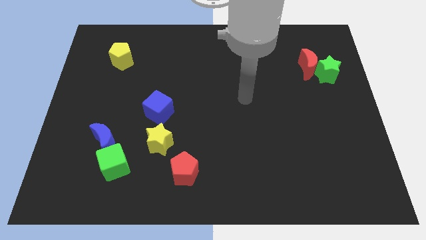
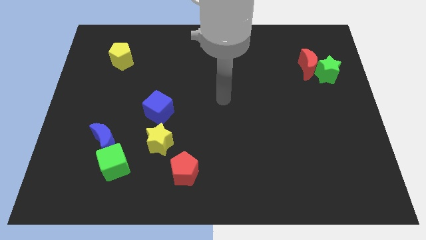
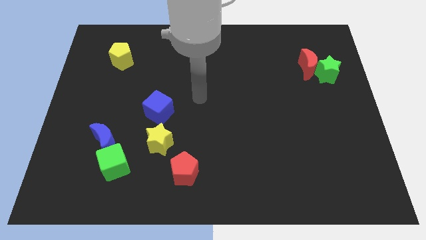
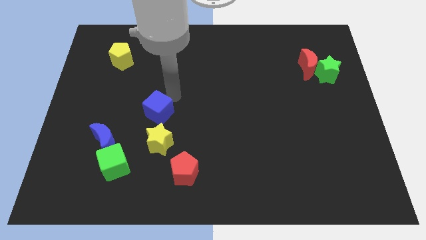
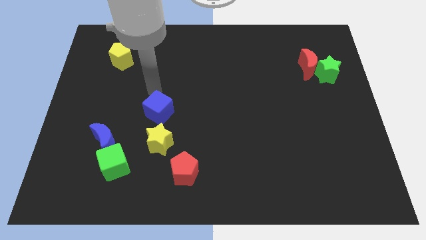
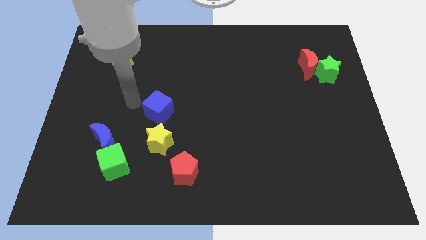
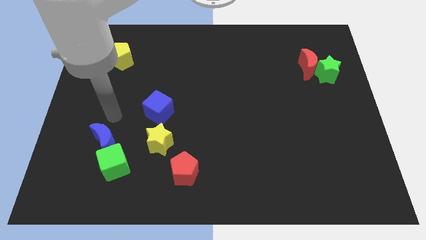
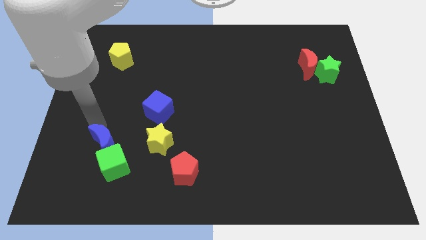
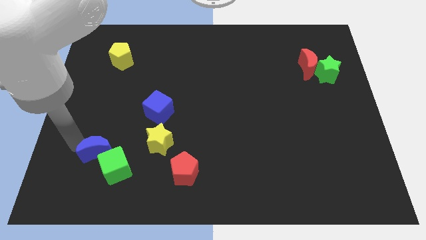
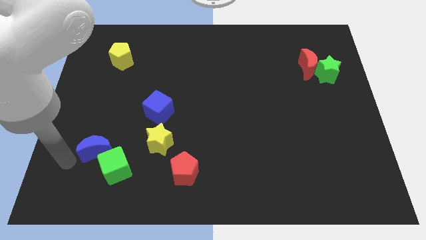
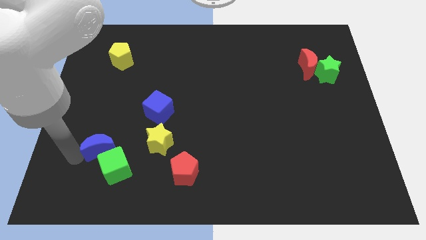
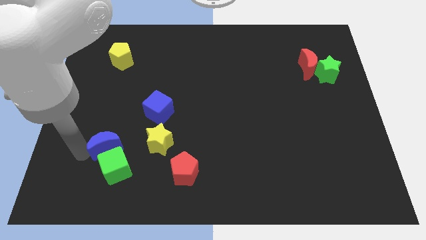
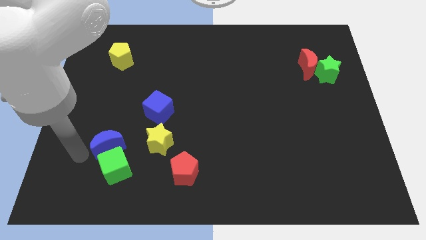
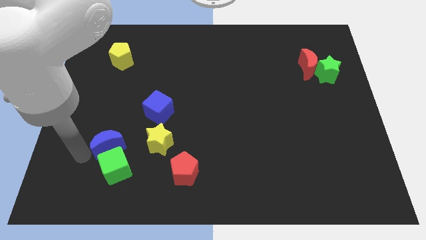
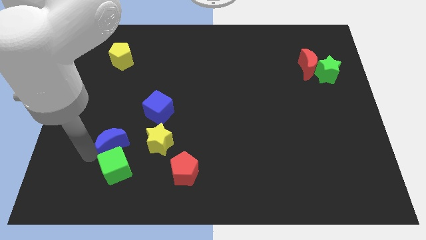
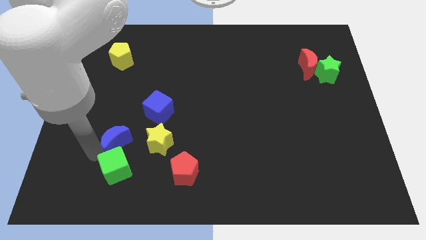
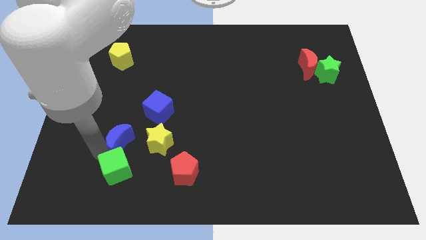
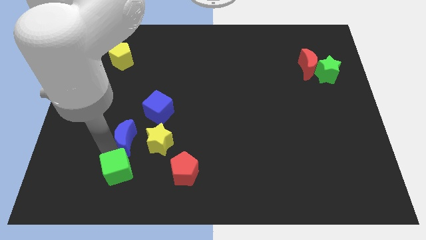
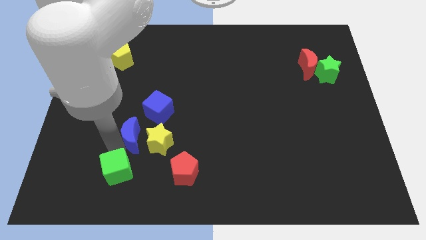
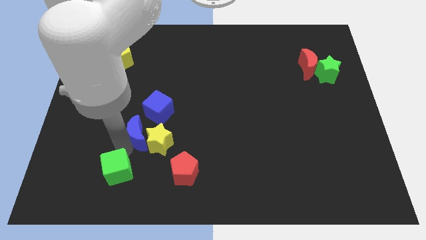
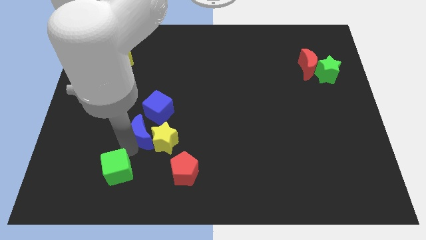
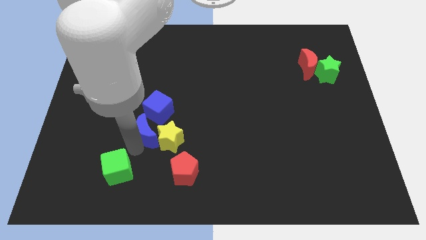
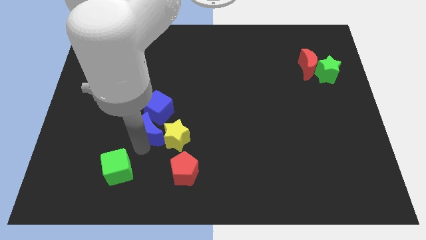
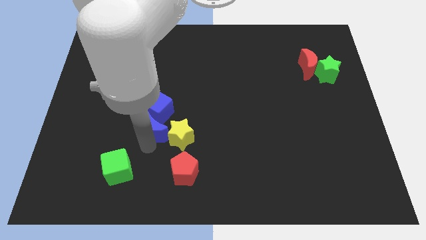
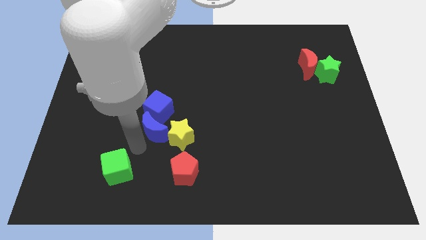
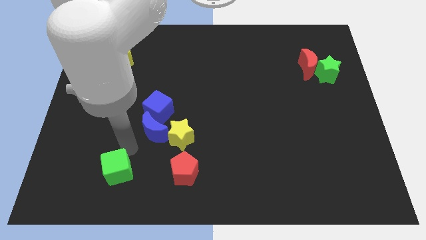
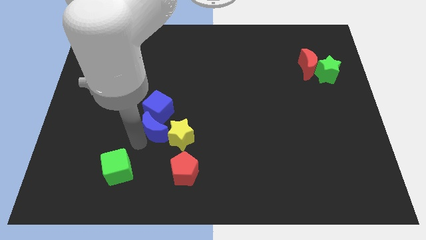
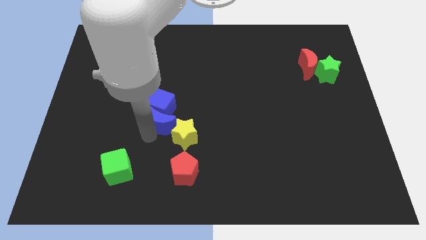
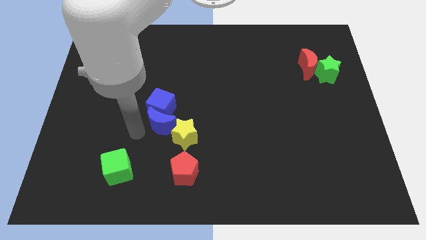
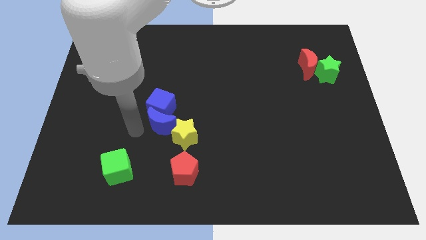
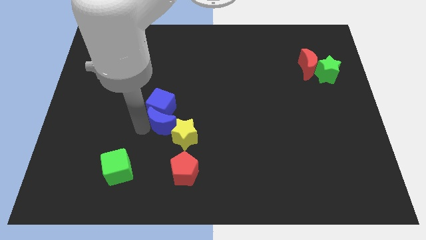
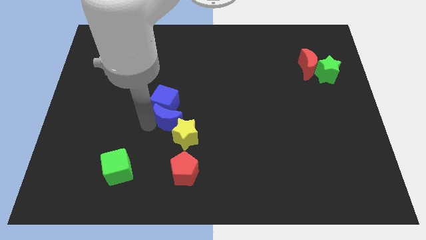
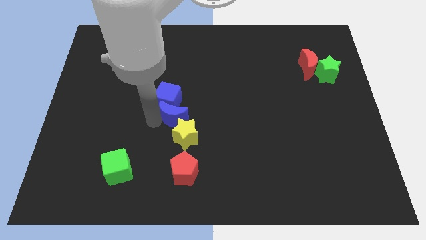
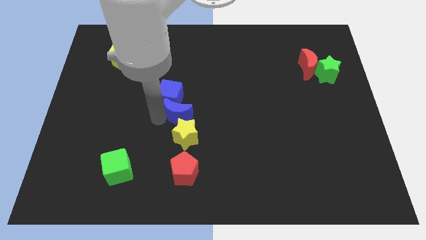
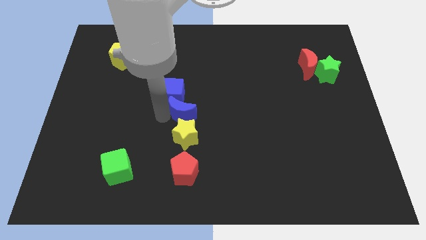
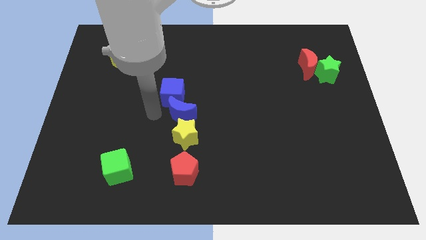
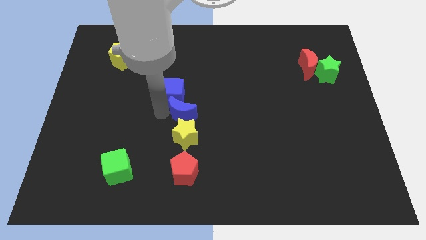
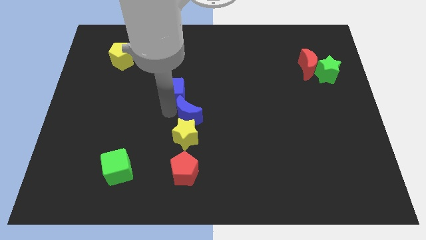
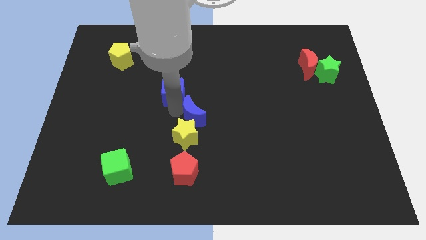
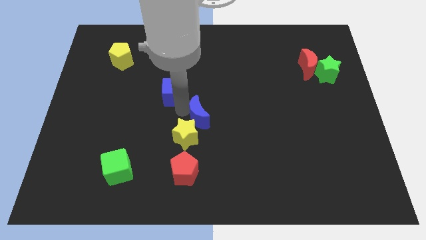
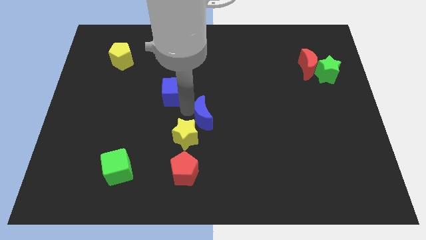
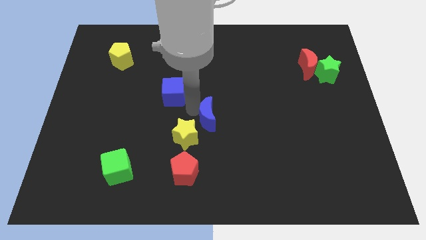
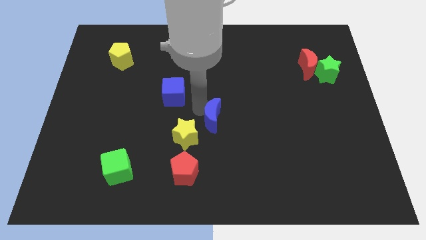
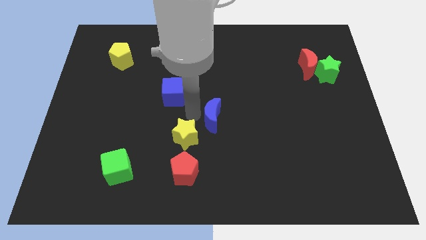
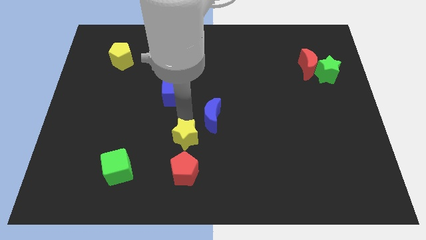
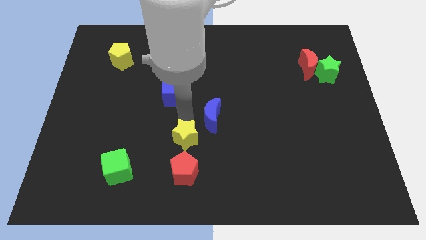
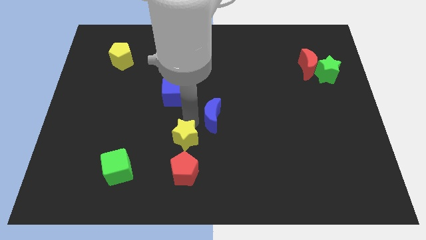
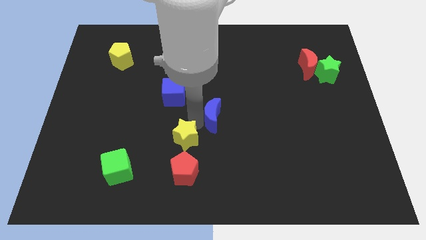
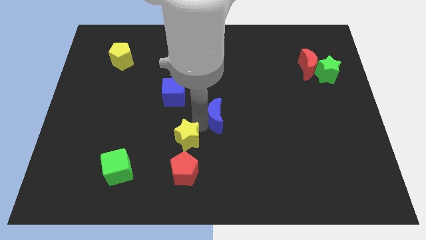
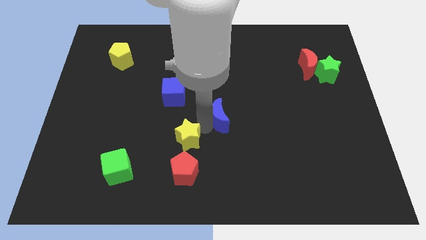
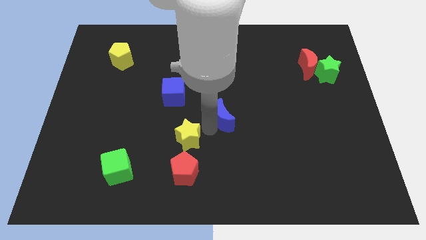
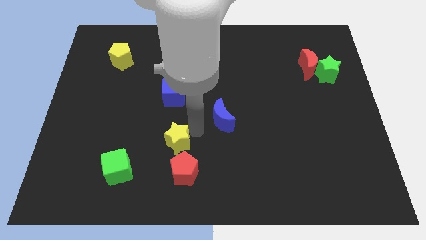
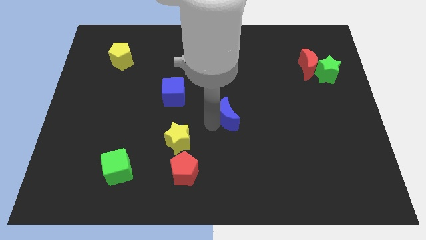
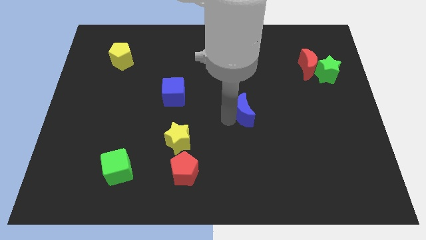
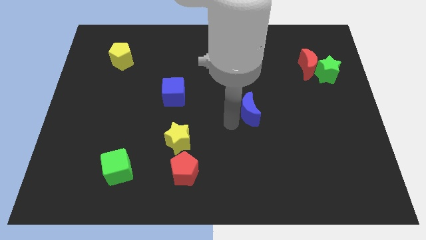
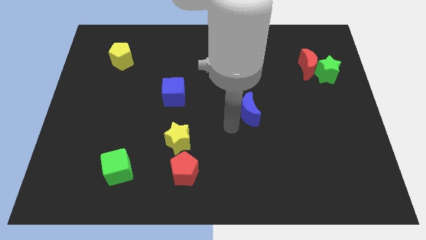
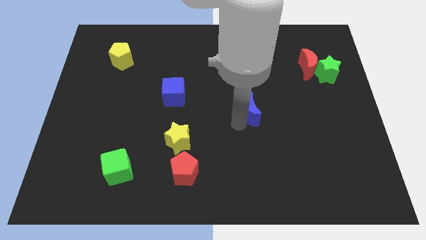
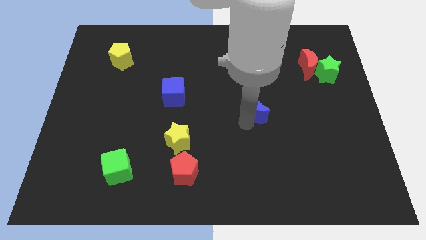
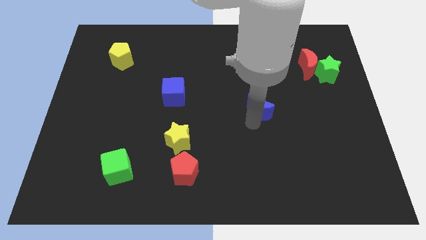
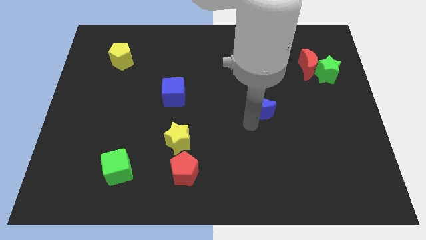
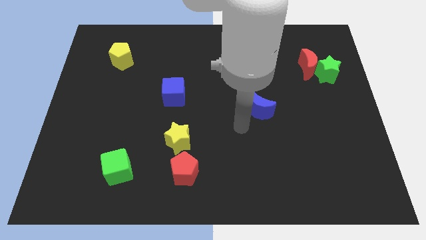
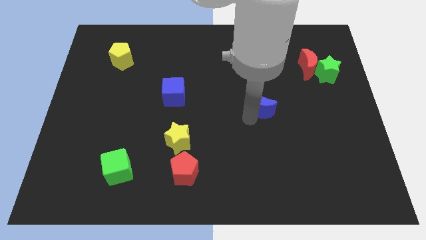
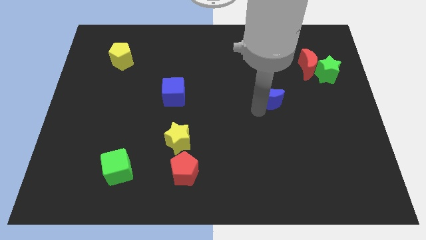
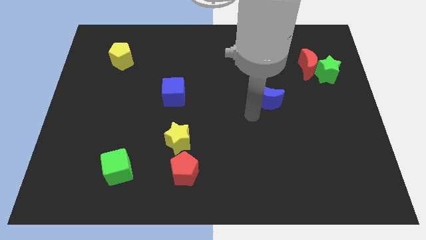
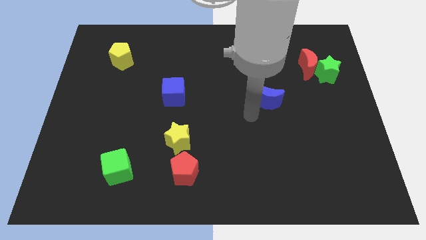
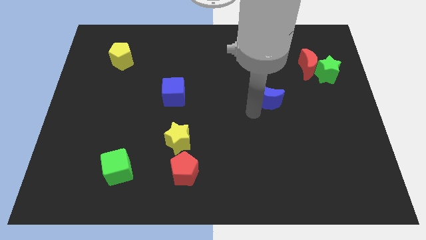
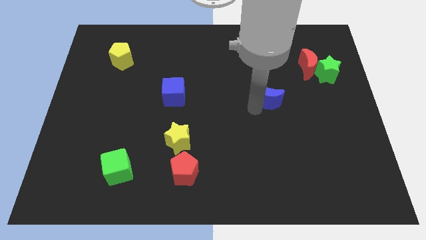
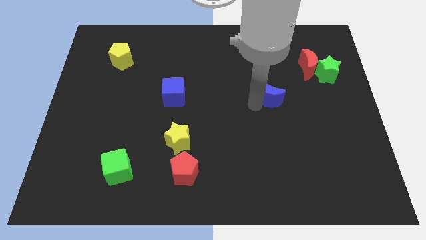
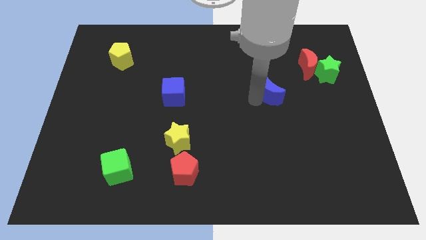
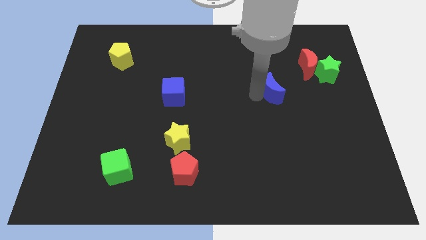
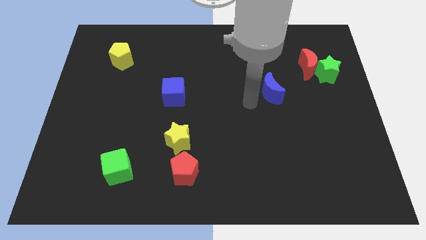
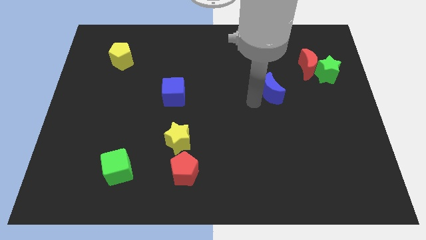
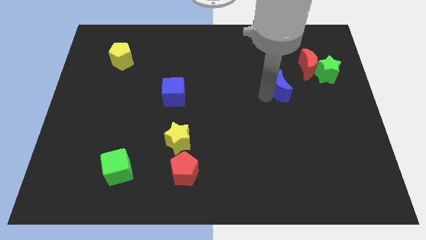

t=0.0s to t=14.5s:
slide the blue moon to the bottom left of the red moon

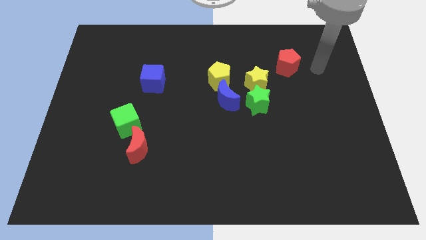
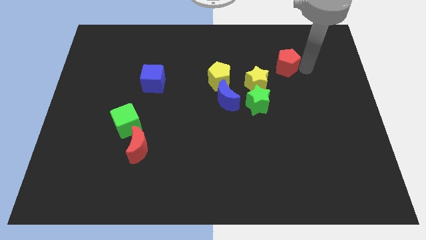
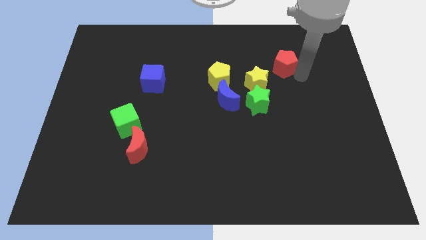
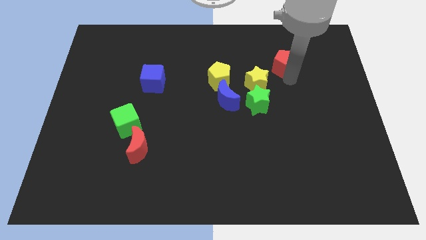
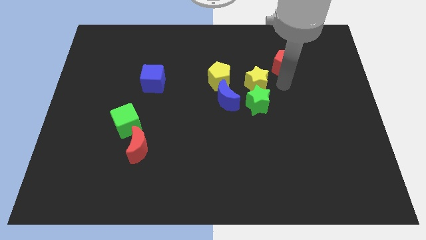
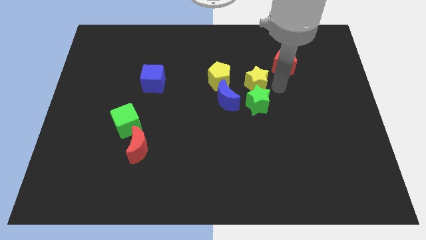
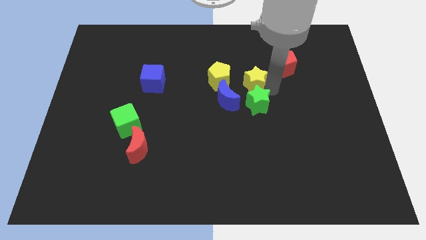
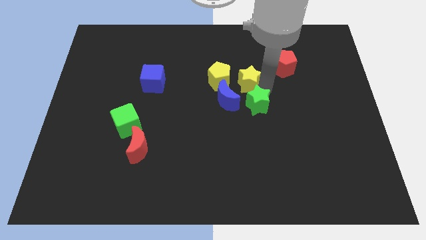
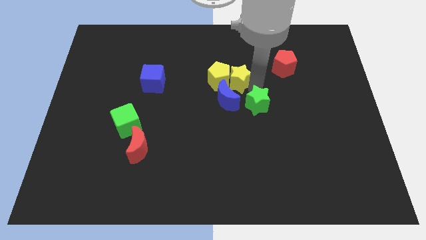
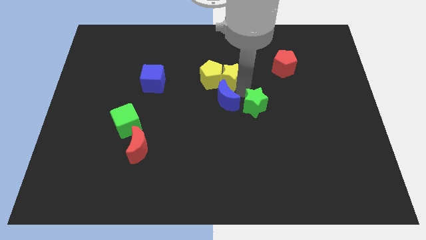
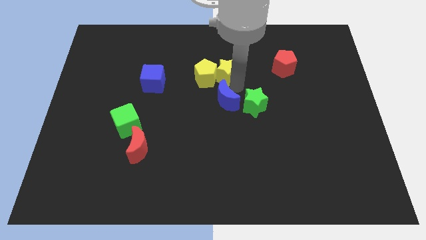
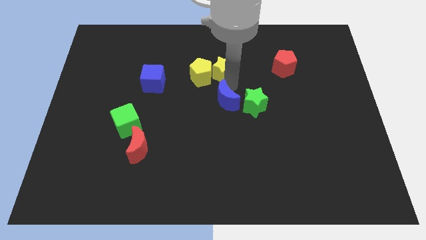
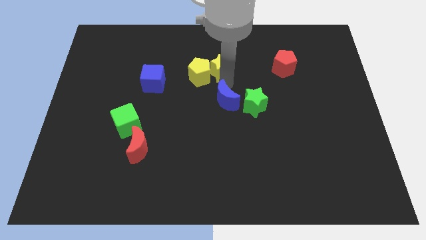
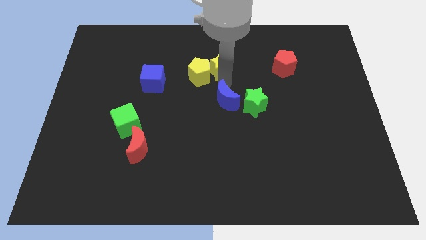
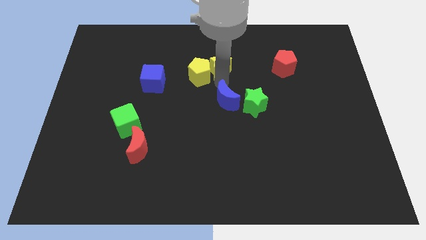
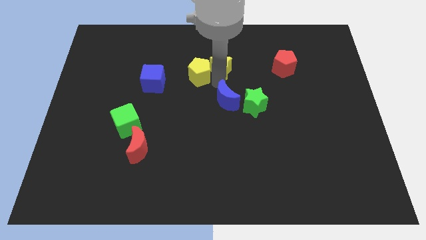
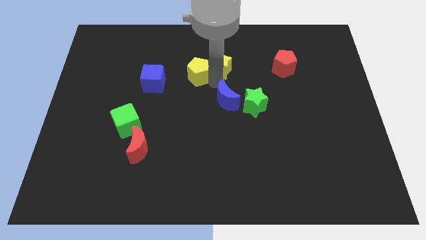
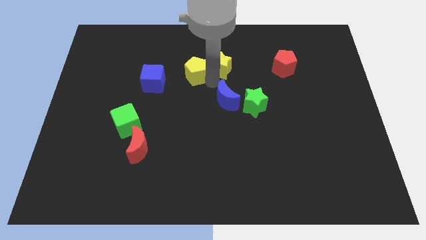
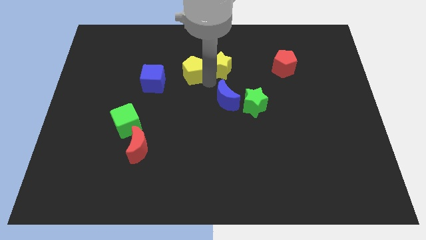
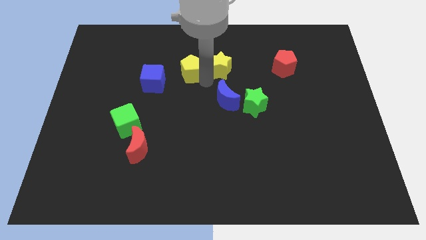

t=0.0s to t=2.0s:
push the yellow pentagon diagonally up and to the right of the blue cube
